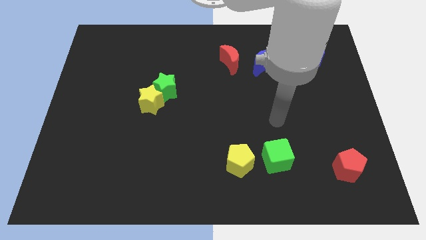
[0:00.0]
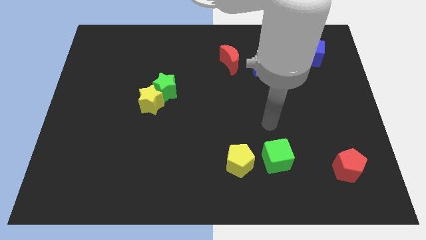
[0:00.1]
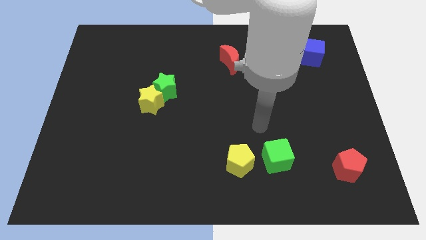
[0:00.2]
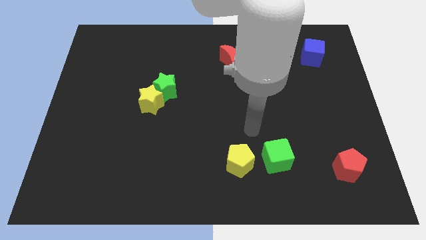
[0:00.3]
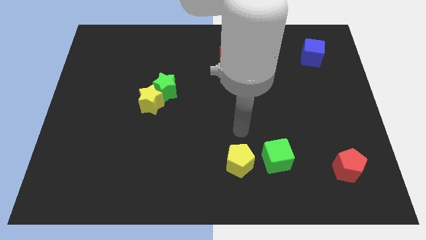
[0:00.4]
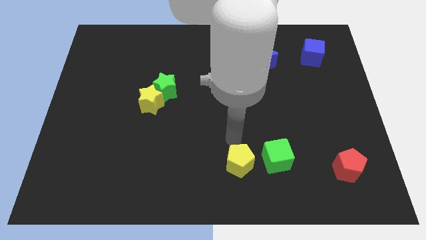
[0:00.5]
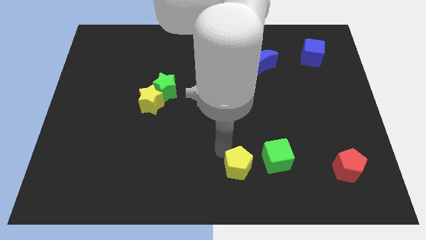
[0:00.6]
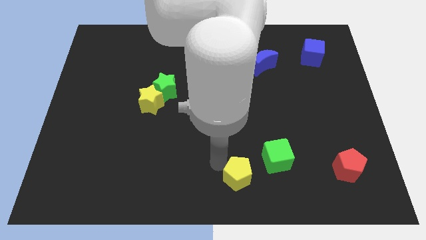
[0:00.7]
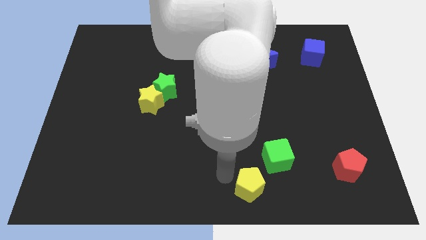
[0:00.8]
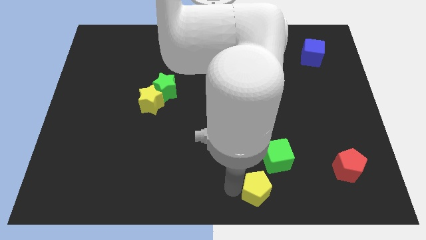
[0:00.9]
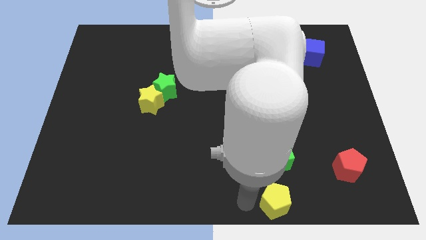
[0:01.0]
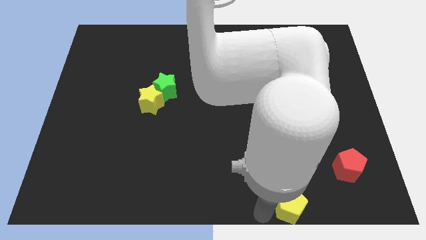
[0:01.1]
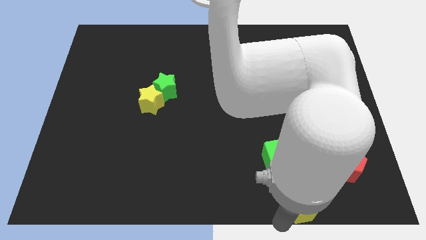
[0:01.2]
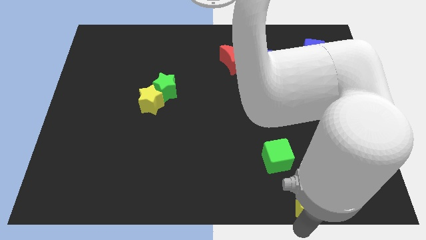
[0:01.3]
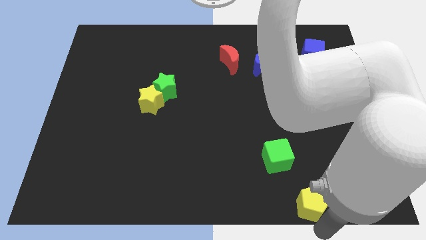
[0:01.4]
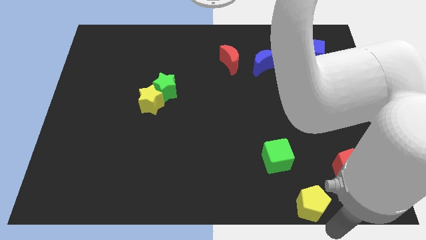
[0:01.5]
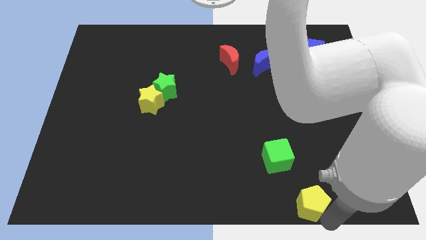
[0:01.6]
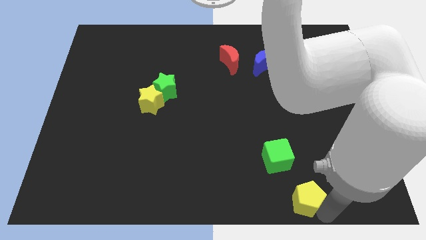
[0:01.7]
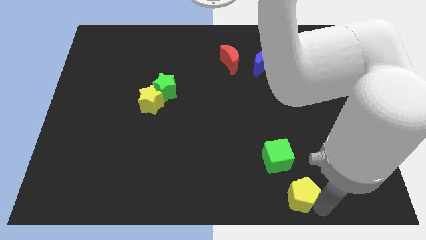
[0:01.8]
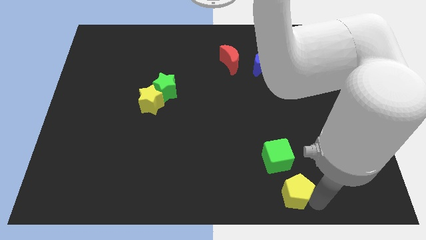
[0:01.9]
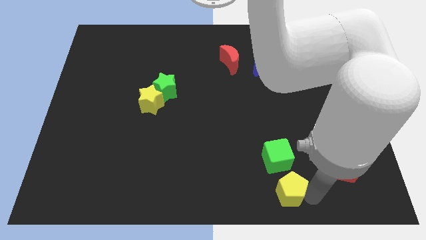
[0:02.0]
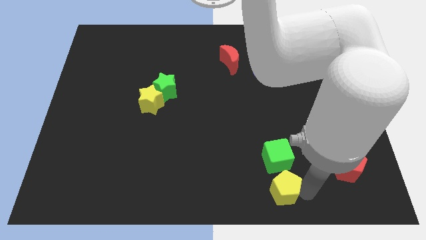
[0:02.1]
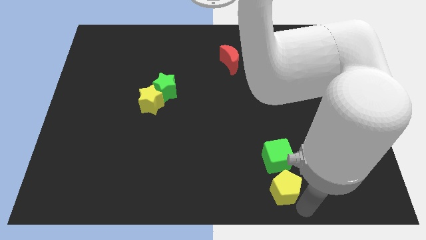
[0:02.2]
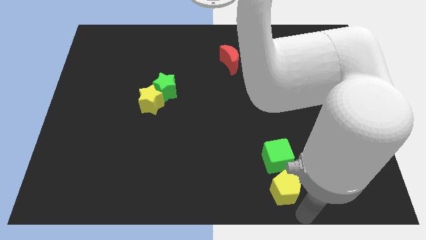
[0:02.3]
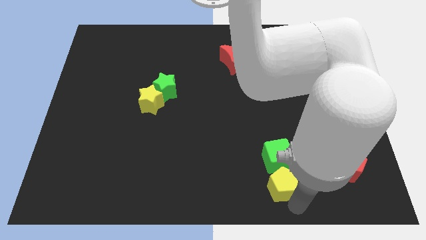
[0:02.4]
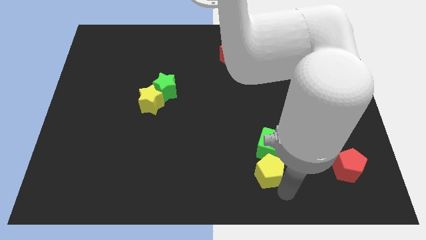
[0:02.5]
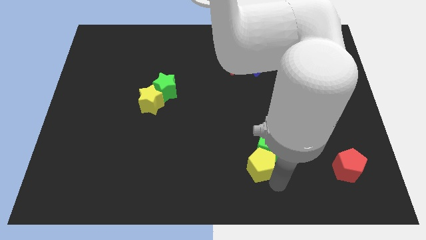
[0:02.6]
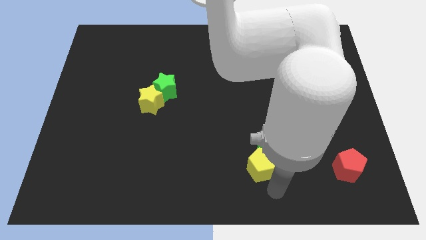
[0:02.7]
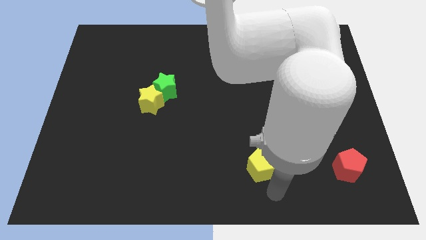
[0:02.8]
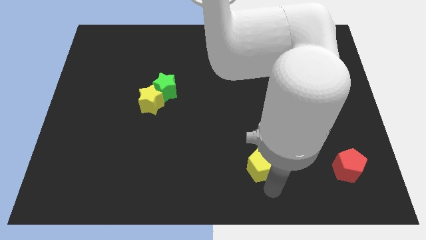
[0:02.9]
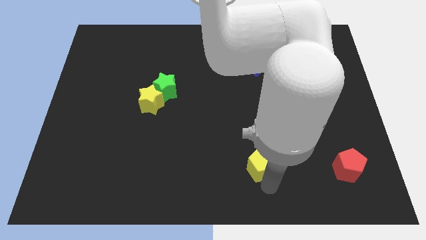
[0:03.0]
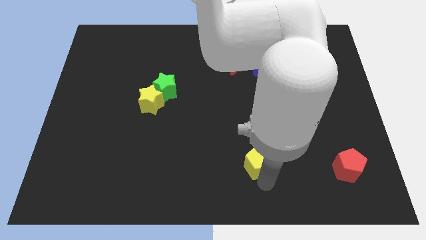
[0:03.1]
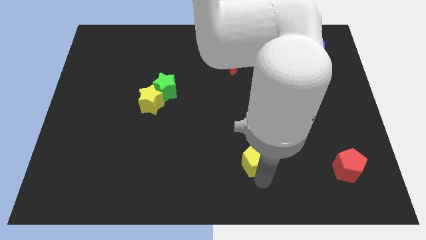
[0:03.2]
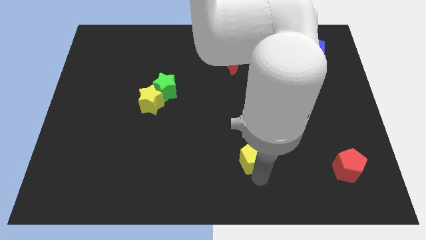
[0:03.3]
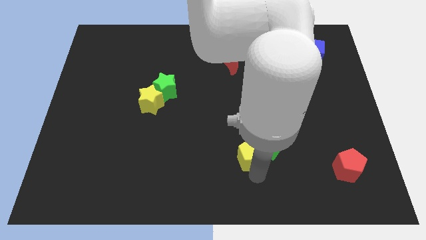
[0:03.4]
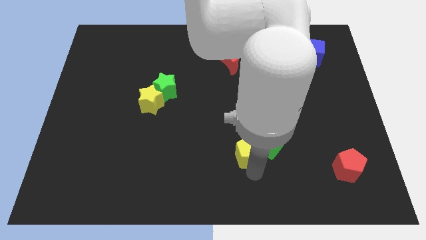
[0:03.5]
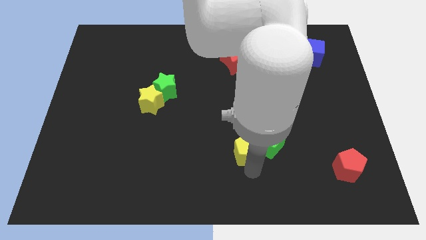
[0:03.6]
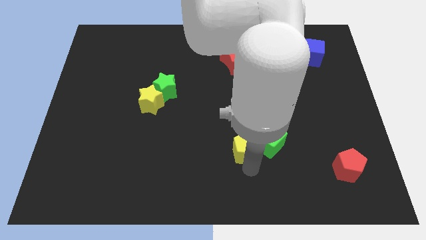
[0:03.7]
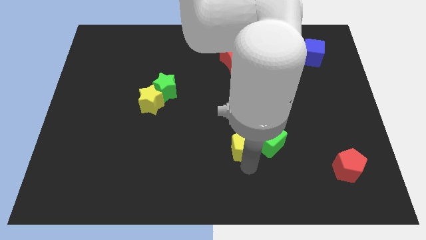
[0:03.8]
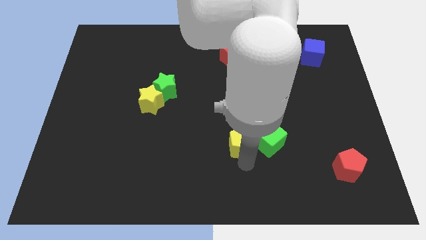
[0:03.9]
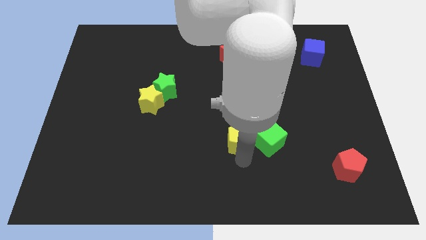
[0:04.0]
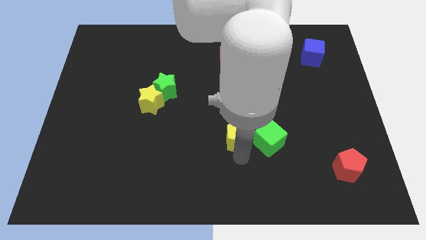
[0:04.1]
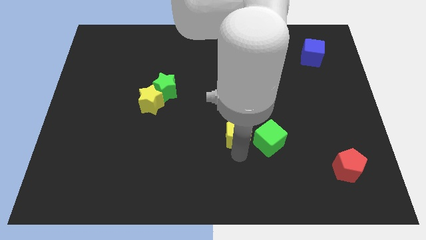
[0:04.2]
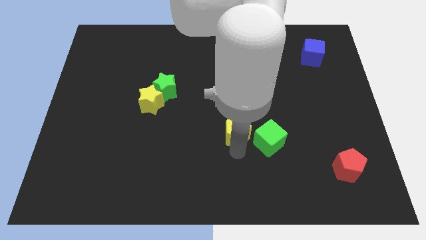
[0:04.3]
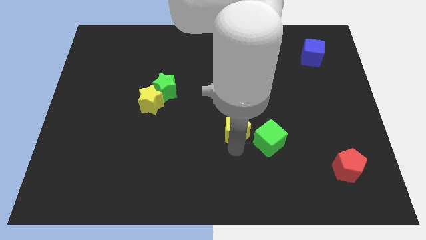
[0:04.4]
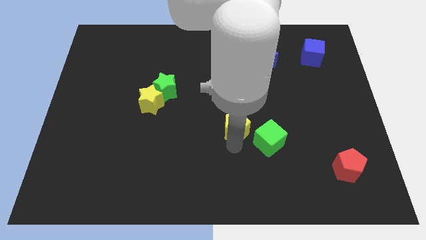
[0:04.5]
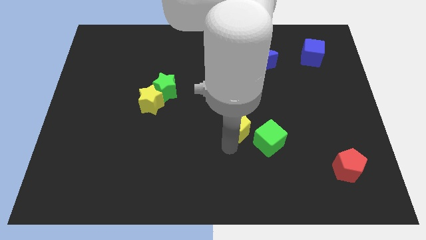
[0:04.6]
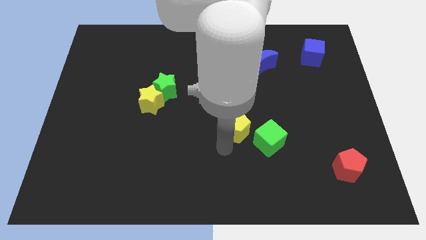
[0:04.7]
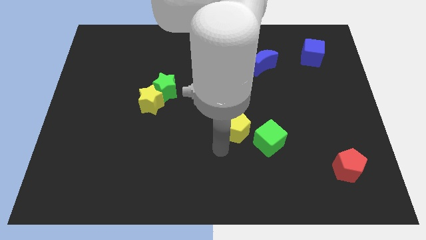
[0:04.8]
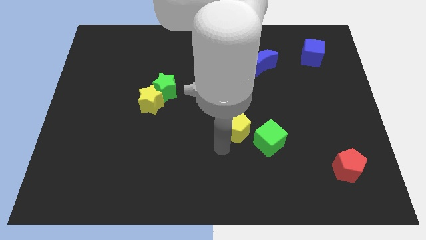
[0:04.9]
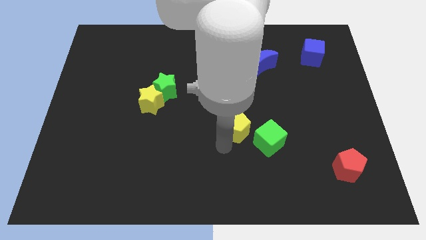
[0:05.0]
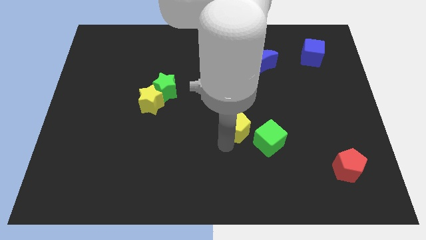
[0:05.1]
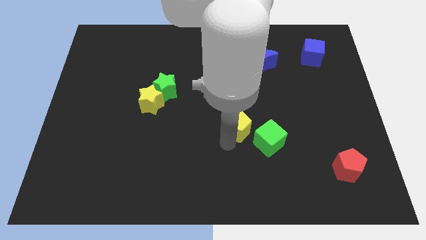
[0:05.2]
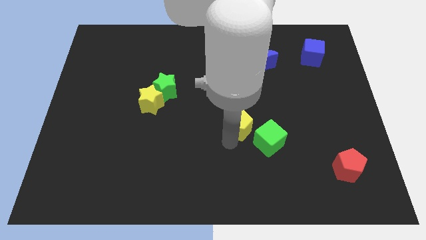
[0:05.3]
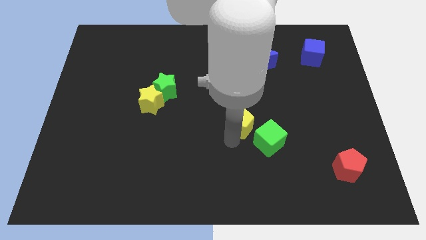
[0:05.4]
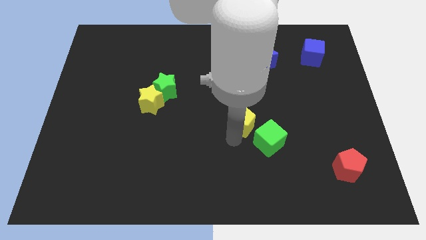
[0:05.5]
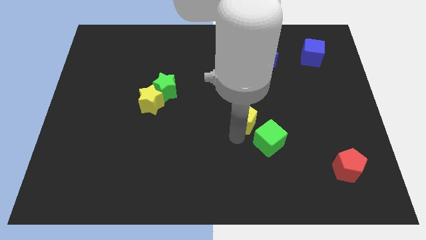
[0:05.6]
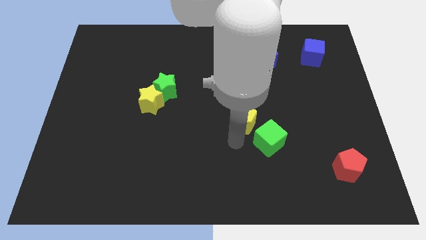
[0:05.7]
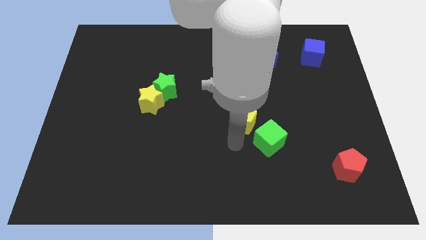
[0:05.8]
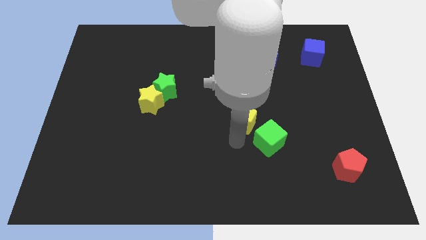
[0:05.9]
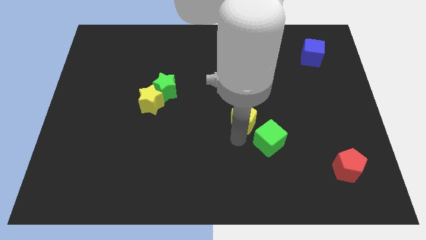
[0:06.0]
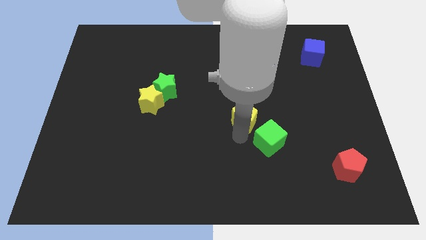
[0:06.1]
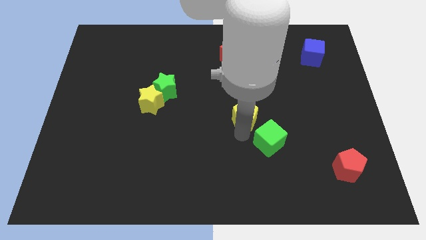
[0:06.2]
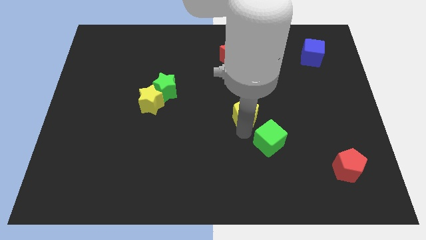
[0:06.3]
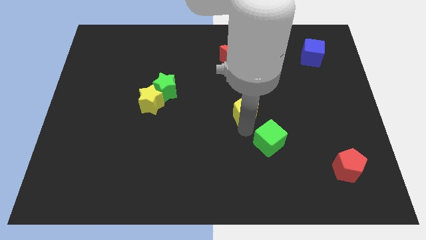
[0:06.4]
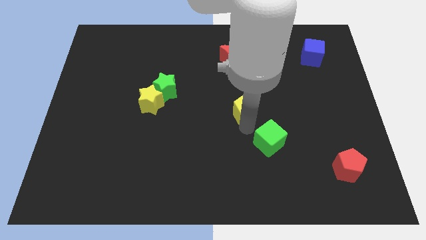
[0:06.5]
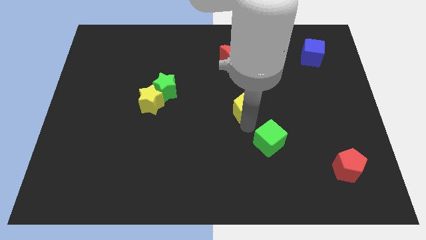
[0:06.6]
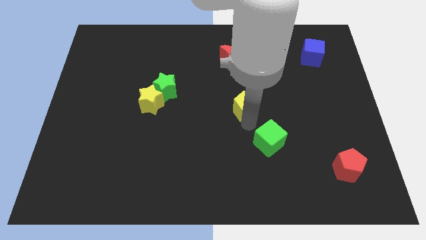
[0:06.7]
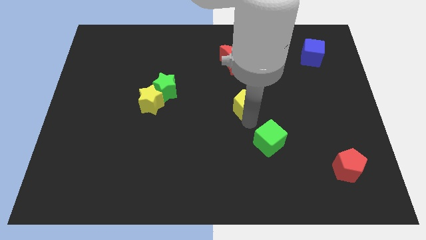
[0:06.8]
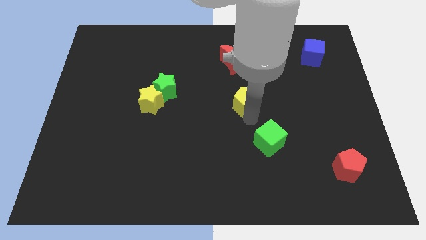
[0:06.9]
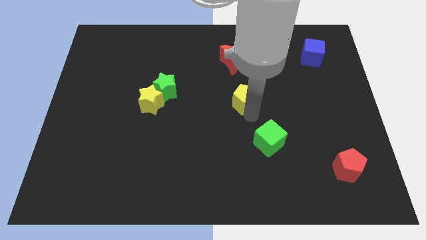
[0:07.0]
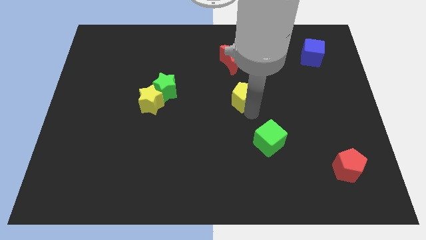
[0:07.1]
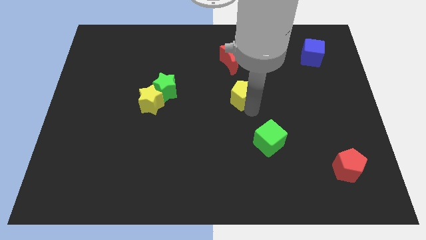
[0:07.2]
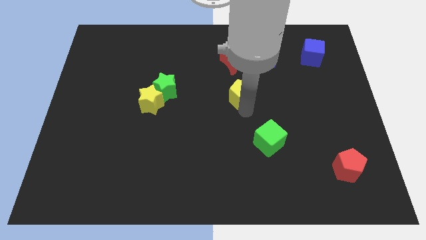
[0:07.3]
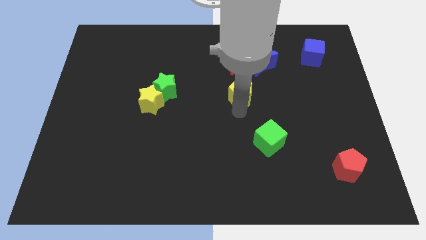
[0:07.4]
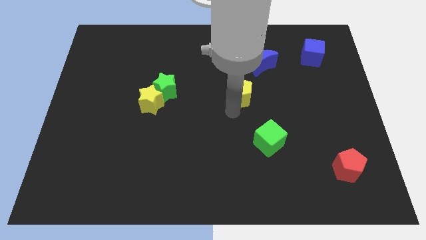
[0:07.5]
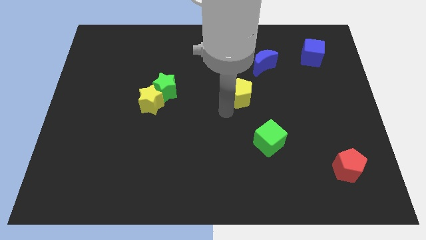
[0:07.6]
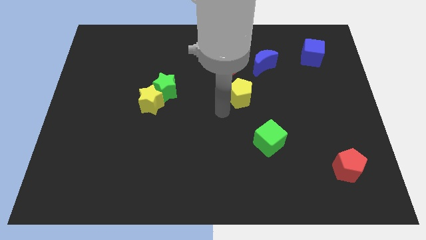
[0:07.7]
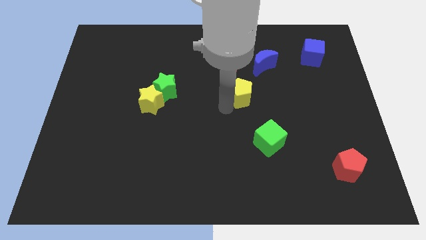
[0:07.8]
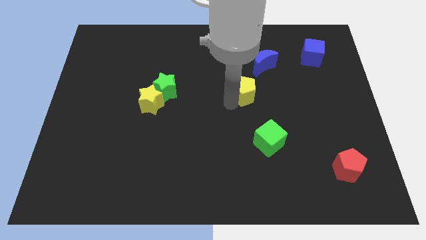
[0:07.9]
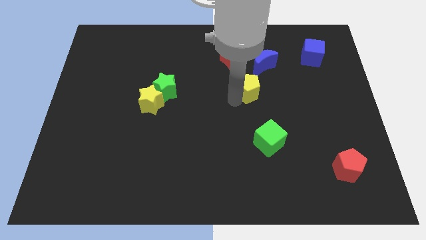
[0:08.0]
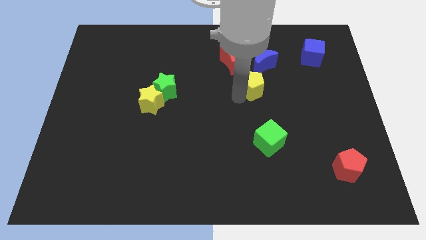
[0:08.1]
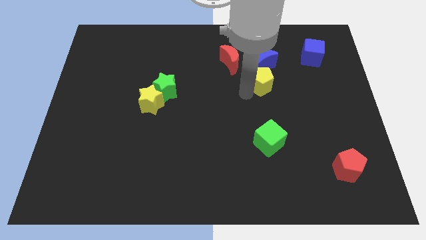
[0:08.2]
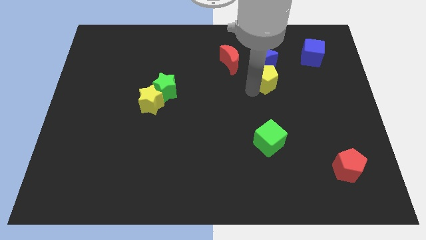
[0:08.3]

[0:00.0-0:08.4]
slide the yellow pentagon to the blue moon
